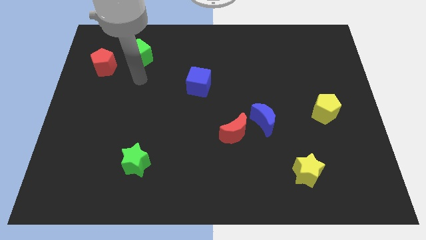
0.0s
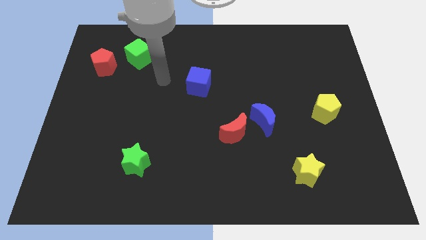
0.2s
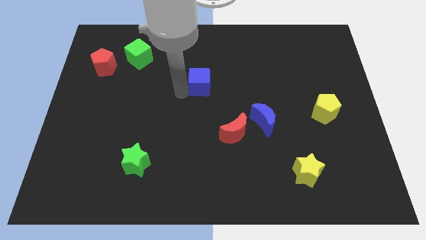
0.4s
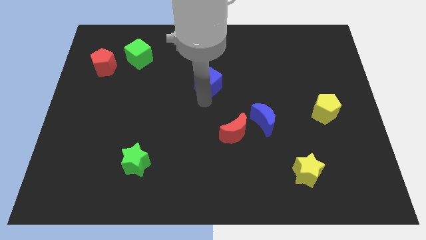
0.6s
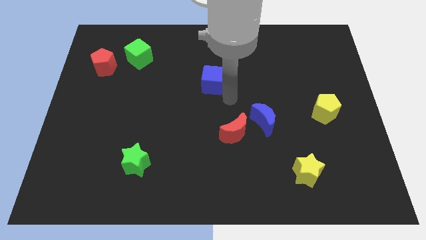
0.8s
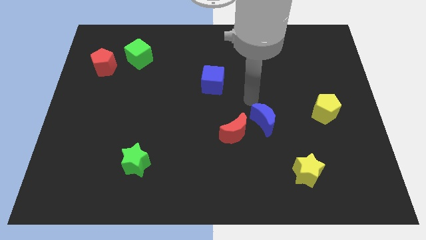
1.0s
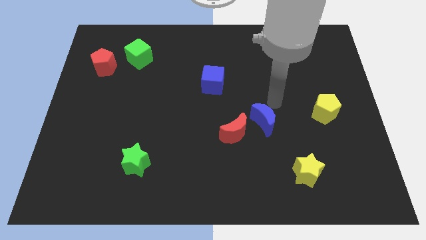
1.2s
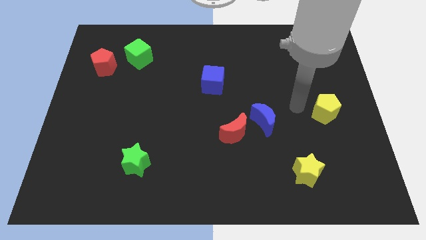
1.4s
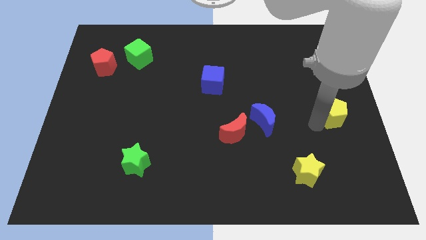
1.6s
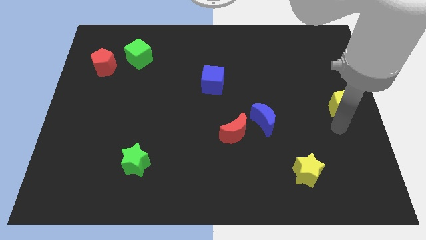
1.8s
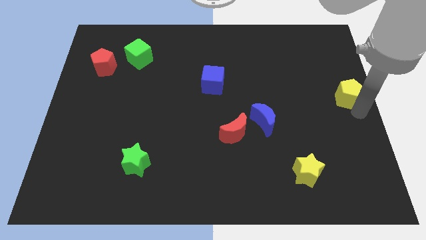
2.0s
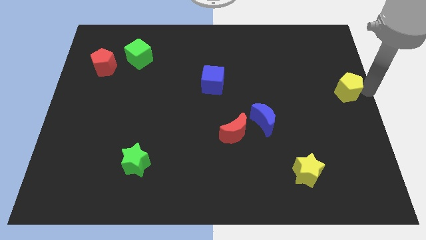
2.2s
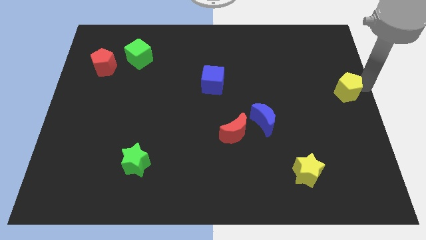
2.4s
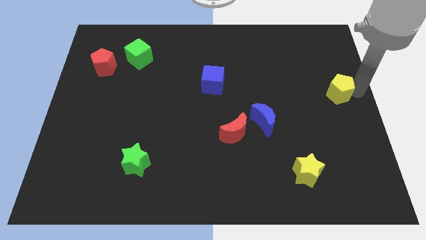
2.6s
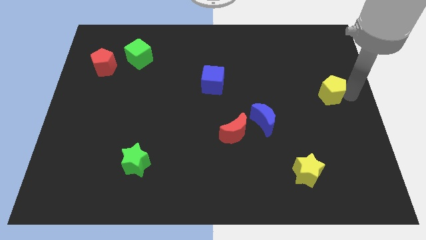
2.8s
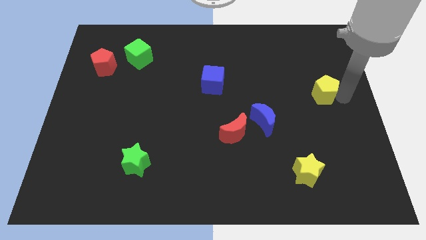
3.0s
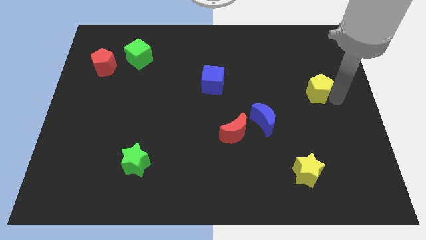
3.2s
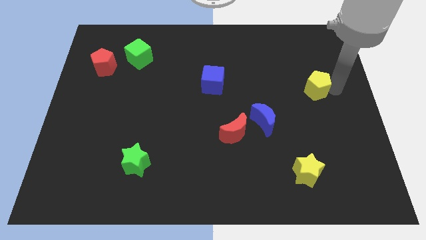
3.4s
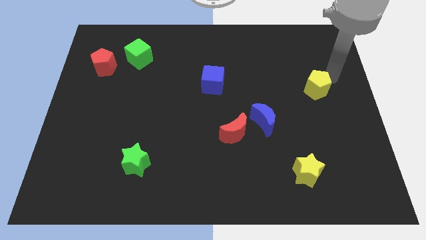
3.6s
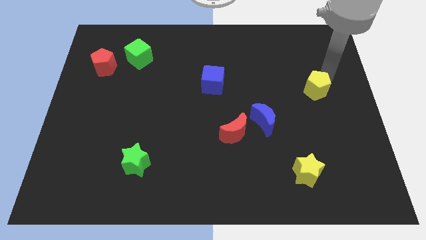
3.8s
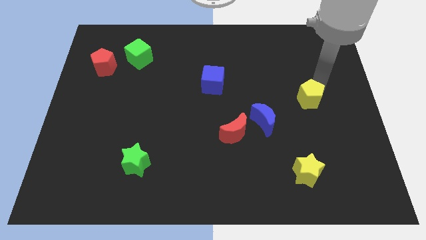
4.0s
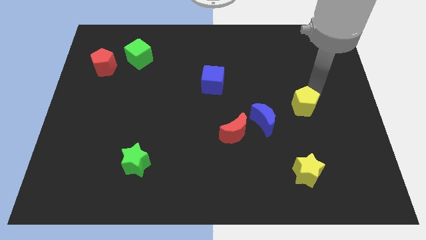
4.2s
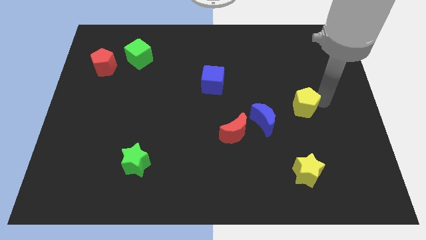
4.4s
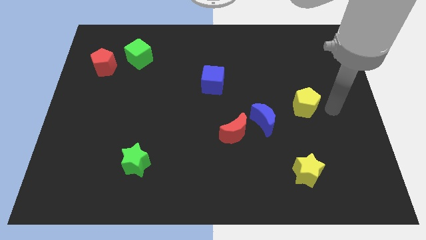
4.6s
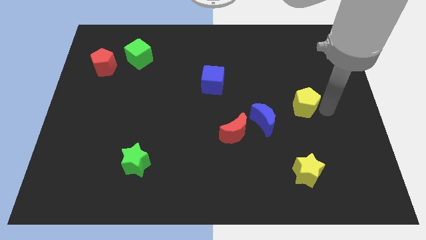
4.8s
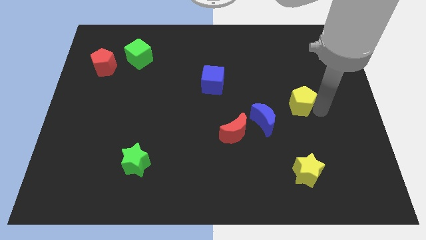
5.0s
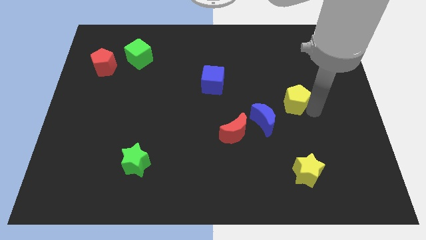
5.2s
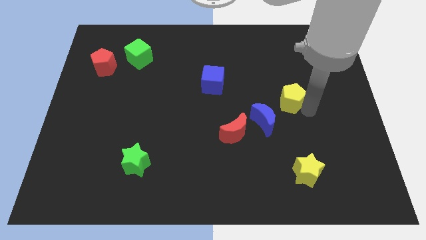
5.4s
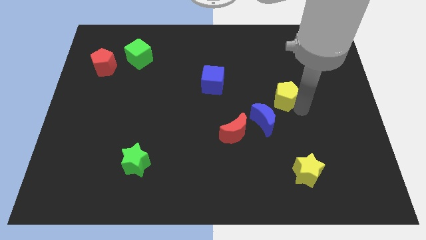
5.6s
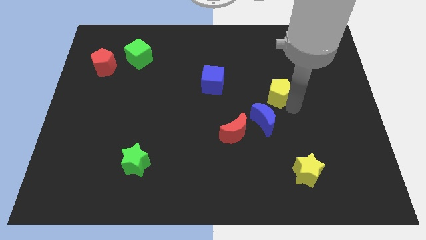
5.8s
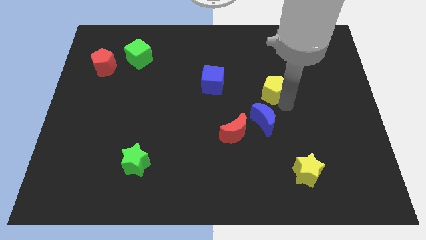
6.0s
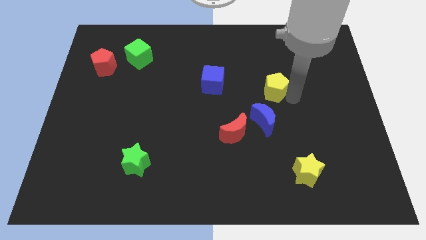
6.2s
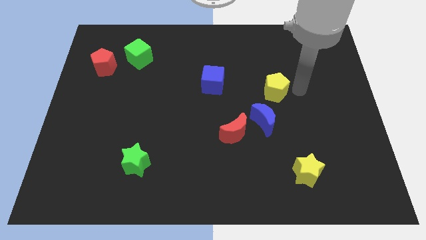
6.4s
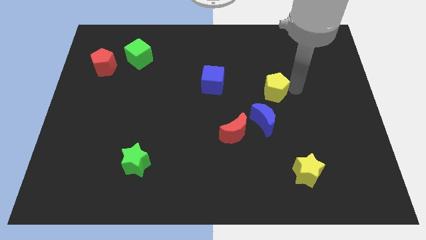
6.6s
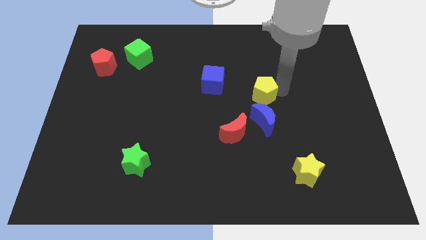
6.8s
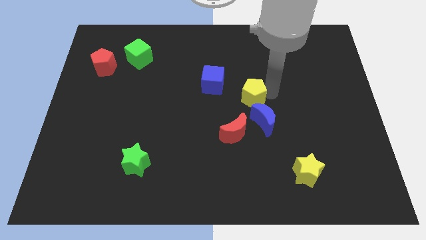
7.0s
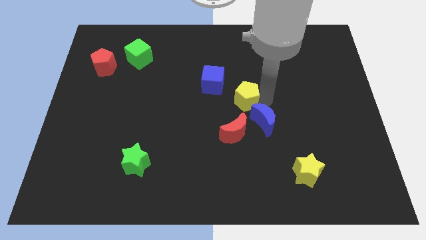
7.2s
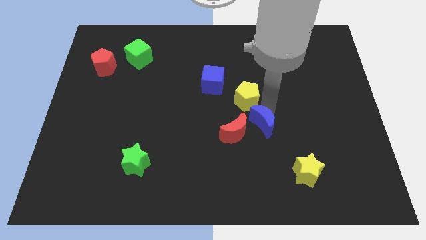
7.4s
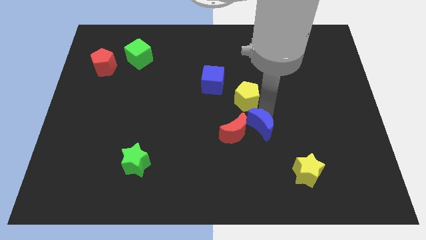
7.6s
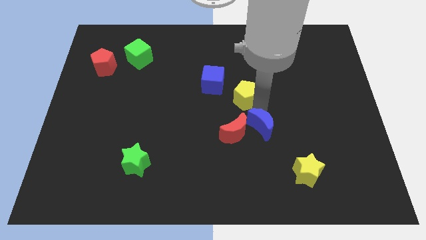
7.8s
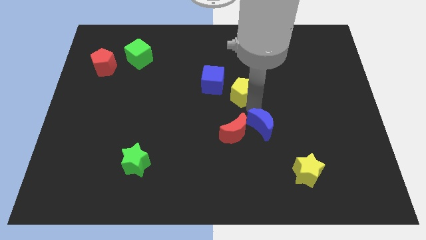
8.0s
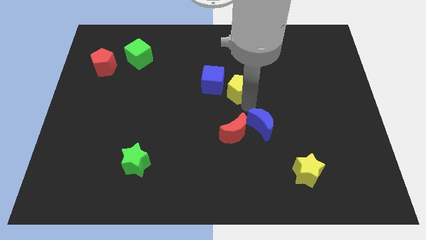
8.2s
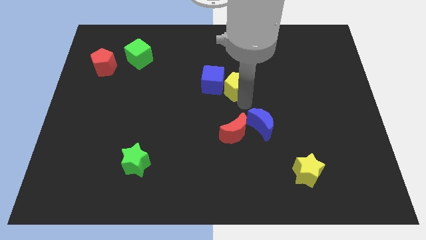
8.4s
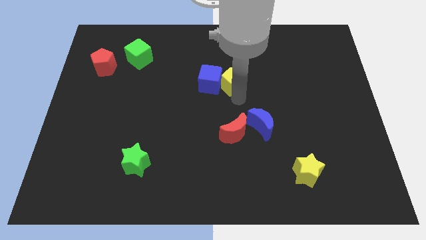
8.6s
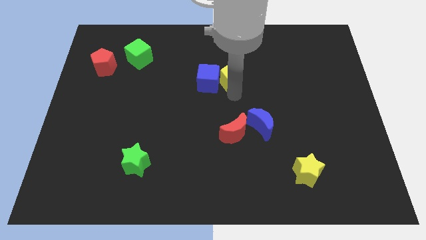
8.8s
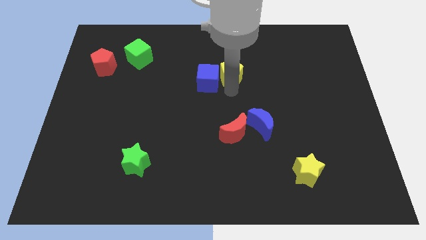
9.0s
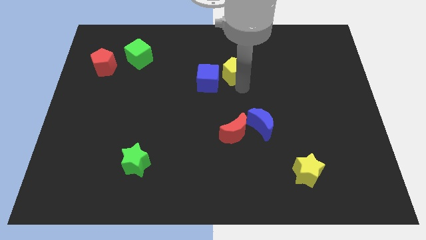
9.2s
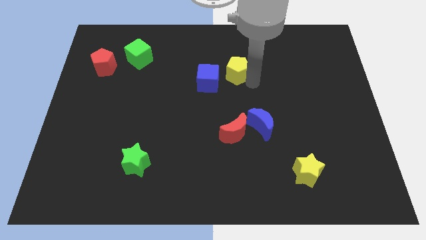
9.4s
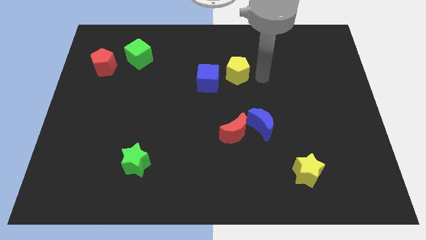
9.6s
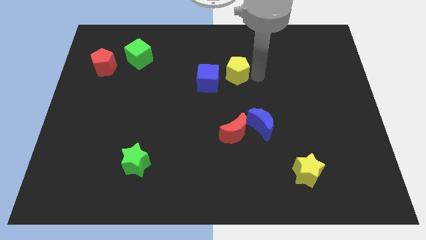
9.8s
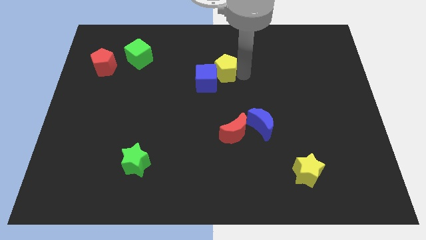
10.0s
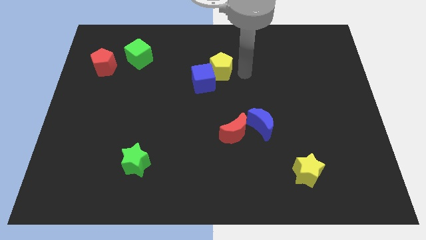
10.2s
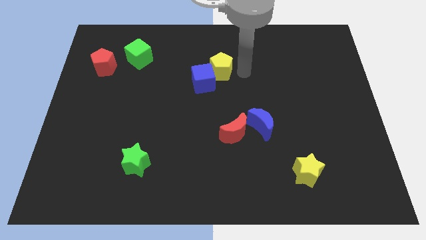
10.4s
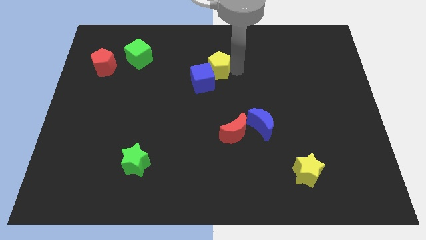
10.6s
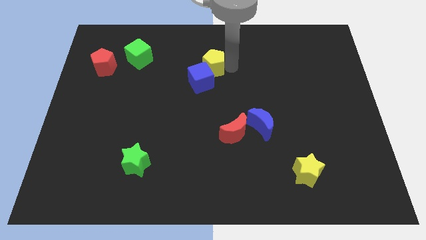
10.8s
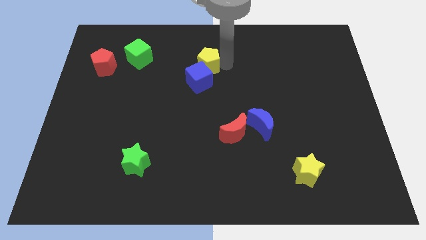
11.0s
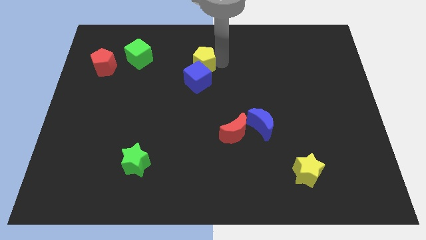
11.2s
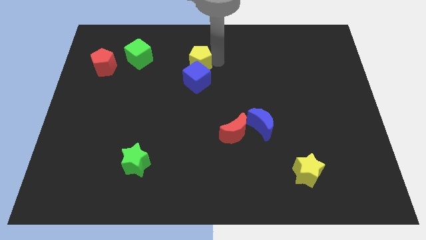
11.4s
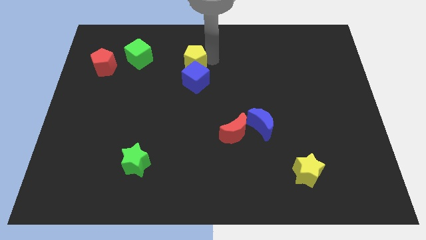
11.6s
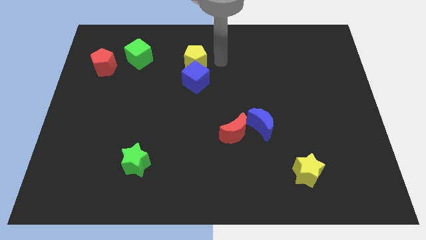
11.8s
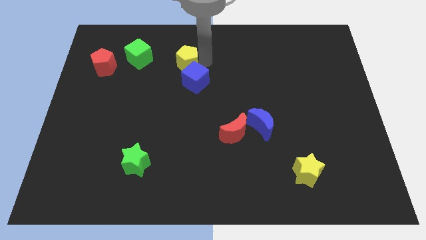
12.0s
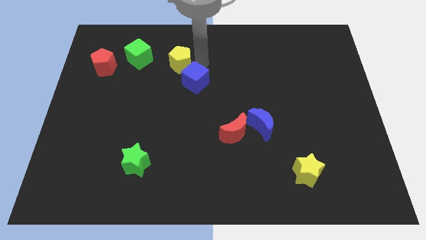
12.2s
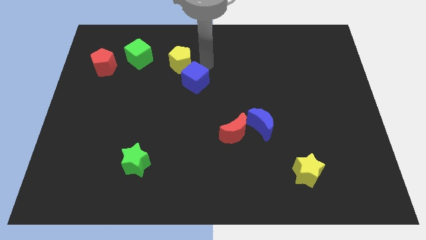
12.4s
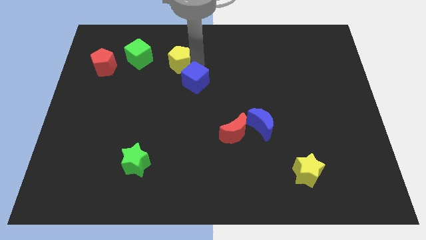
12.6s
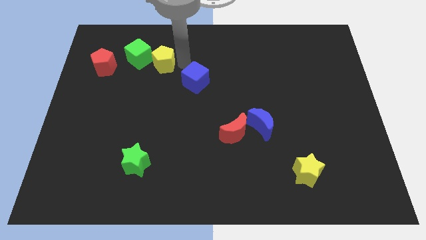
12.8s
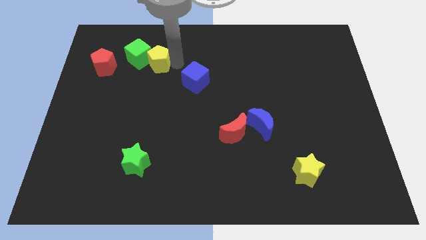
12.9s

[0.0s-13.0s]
slide the yellow pentagon next to the green cube

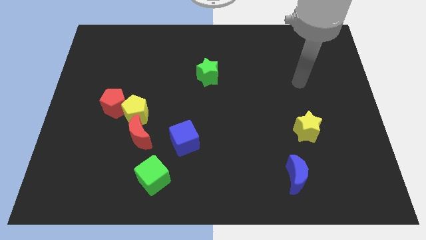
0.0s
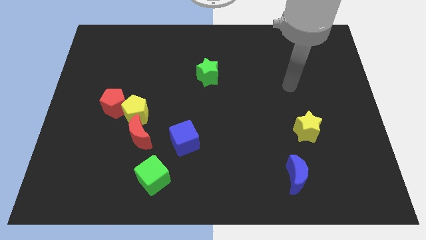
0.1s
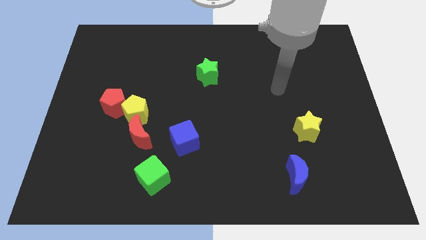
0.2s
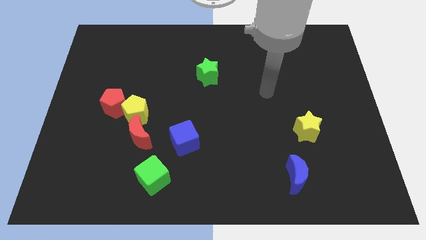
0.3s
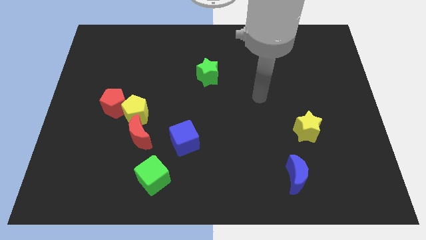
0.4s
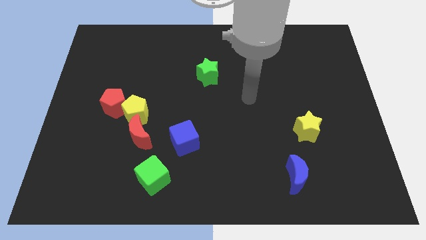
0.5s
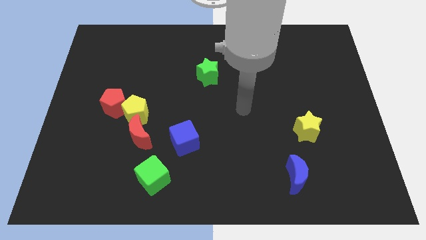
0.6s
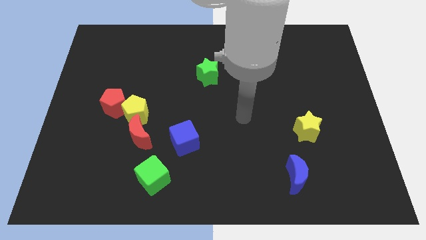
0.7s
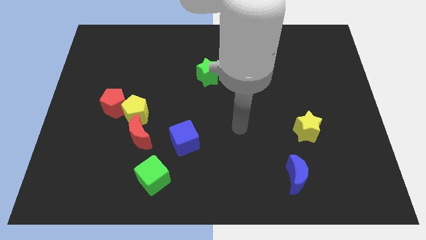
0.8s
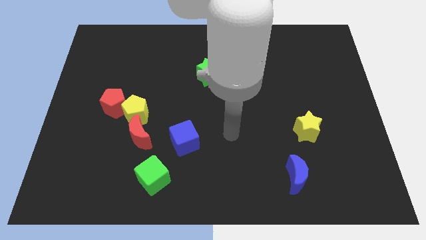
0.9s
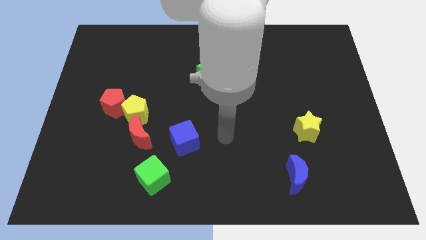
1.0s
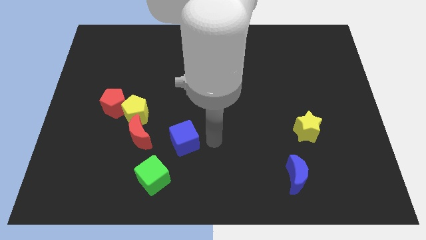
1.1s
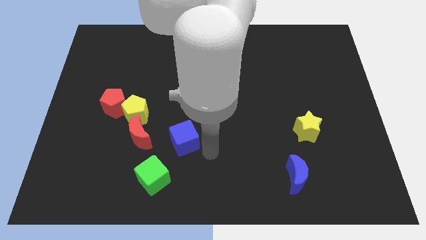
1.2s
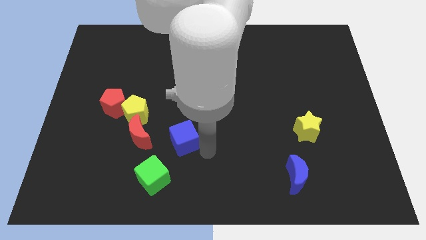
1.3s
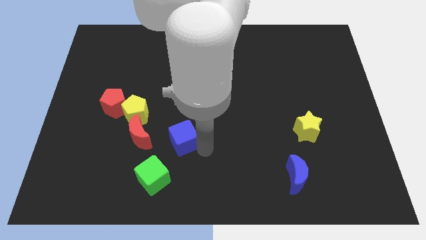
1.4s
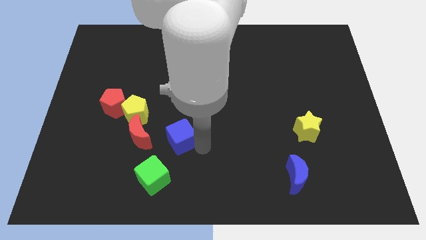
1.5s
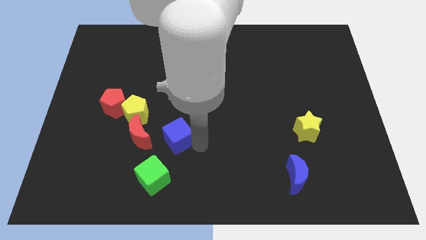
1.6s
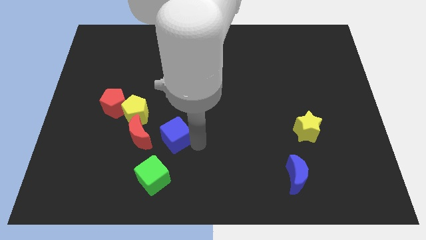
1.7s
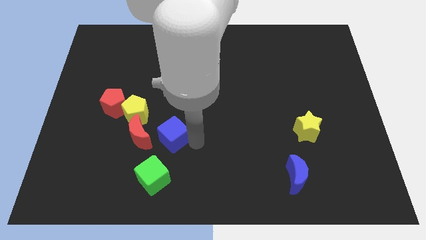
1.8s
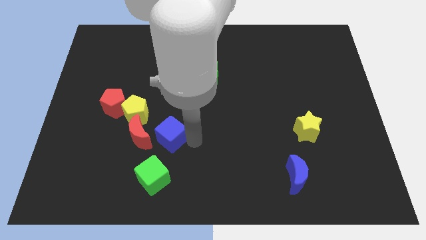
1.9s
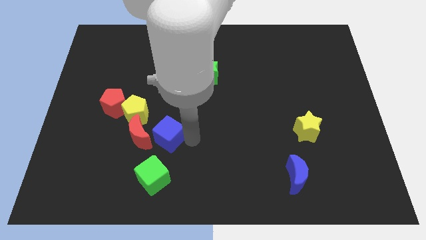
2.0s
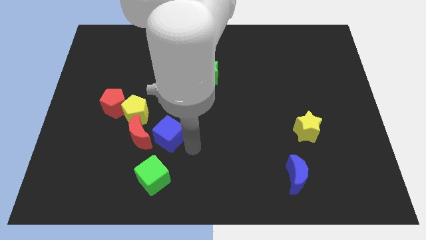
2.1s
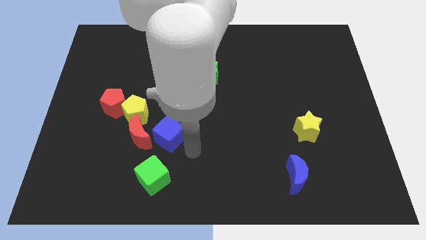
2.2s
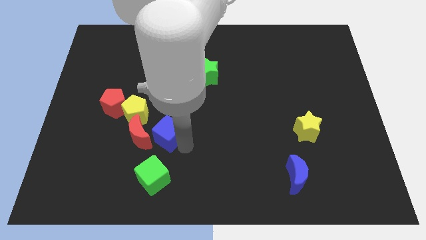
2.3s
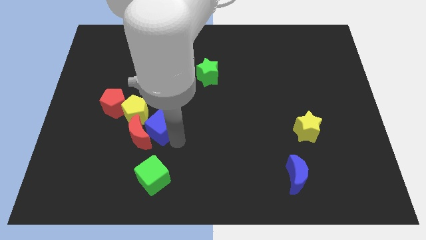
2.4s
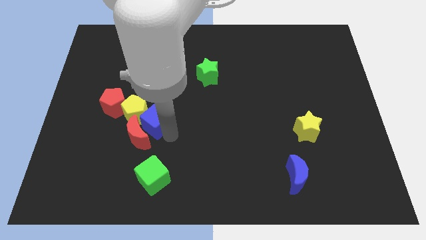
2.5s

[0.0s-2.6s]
push the blue cube close to the yellow pentagon
